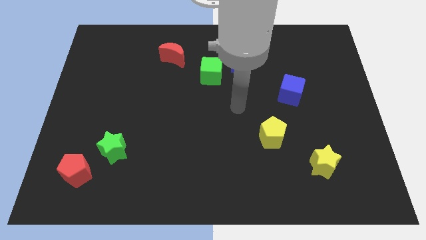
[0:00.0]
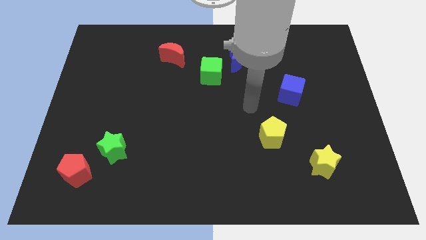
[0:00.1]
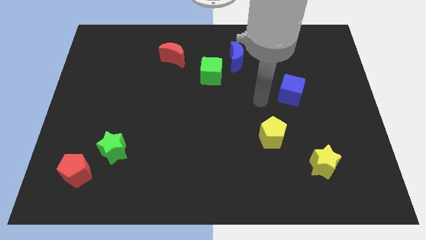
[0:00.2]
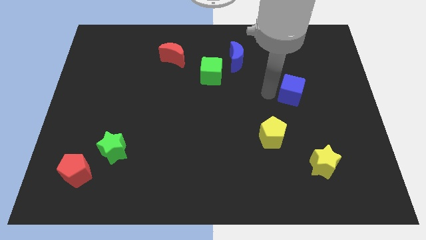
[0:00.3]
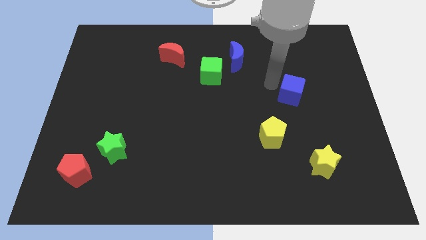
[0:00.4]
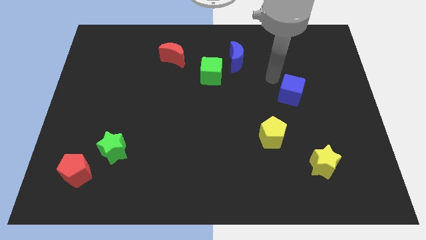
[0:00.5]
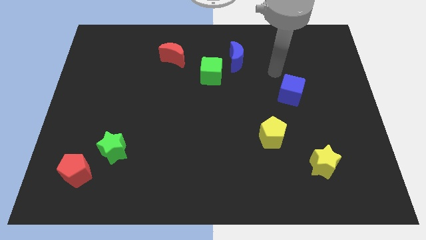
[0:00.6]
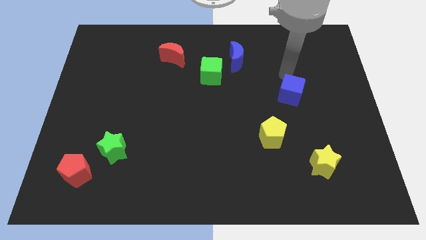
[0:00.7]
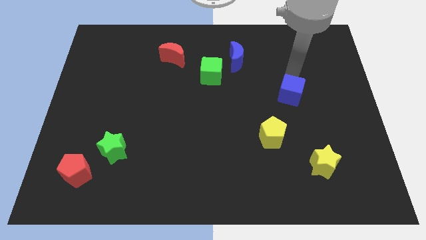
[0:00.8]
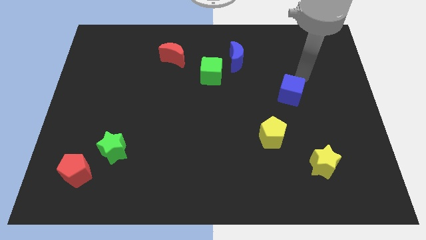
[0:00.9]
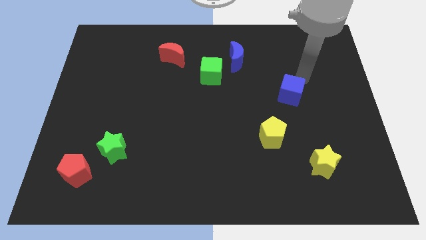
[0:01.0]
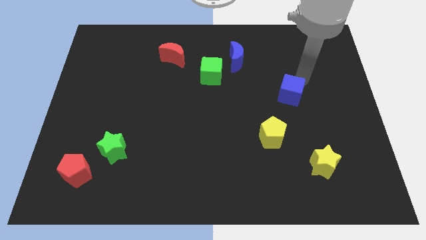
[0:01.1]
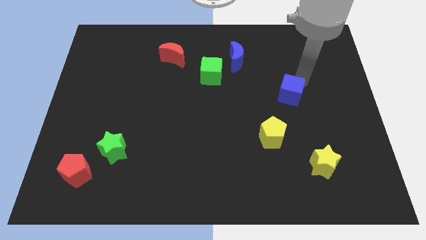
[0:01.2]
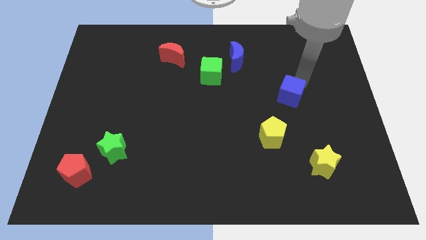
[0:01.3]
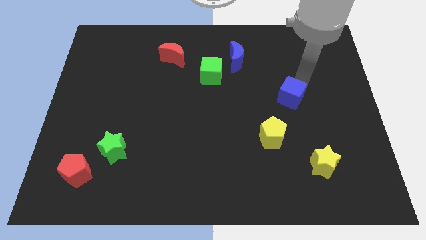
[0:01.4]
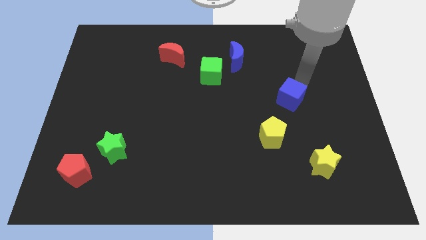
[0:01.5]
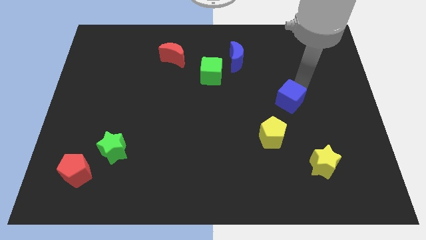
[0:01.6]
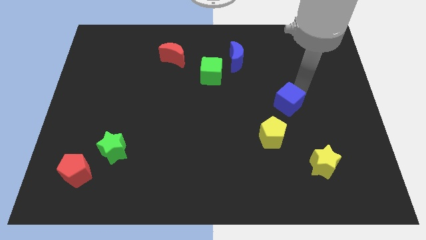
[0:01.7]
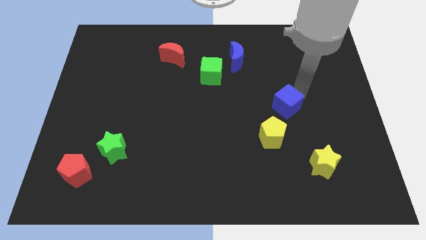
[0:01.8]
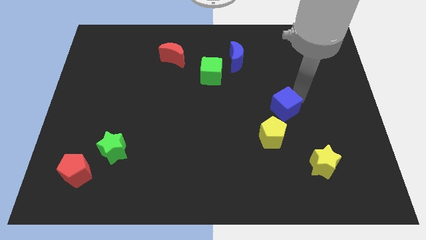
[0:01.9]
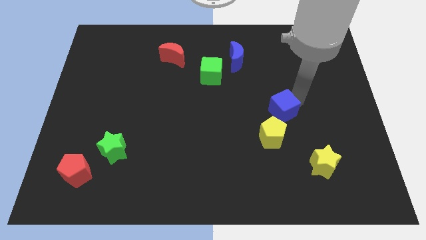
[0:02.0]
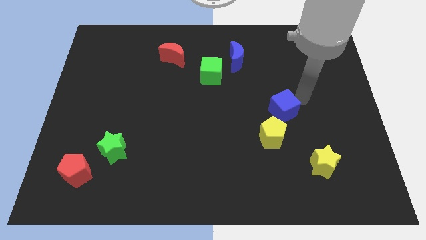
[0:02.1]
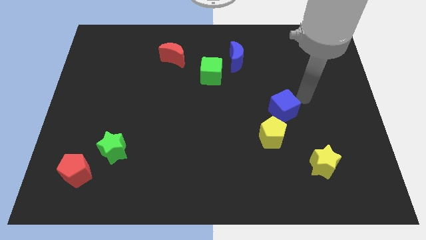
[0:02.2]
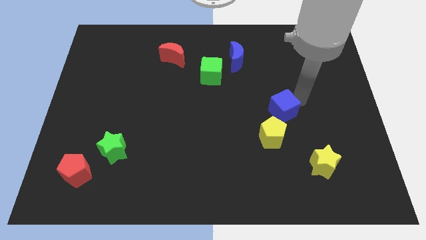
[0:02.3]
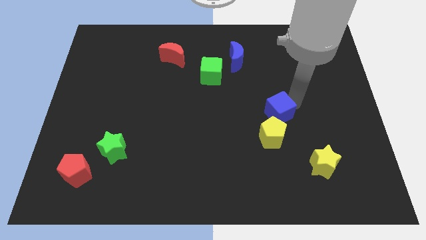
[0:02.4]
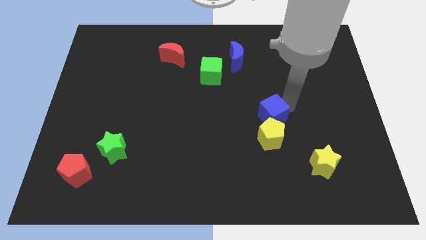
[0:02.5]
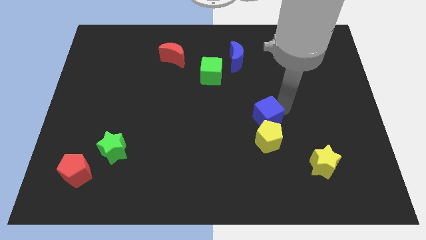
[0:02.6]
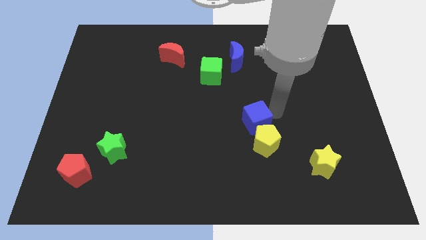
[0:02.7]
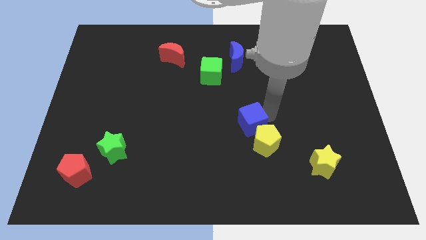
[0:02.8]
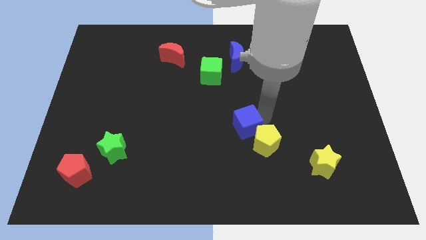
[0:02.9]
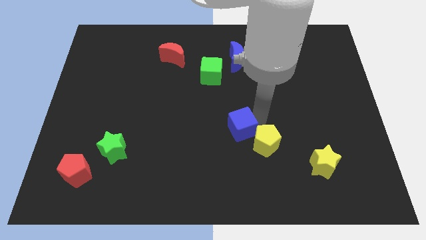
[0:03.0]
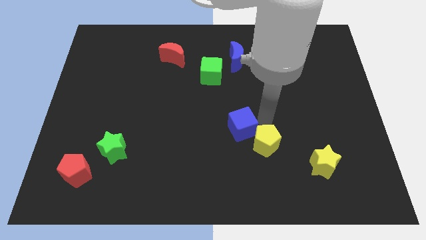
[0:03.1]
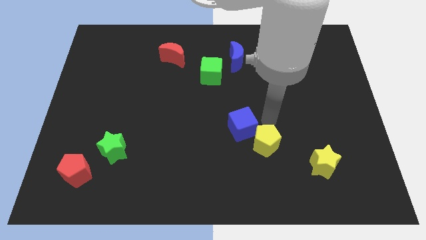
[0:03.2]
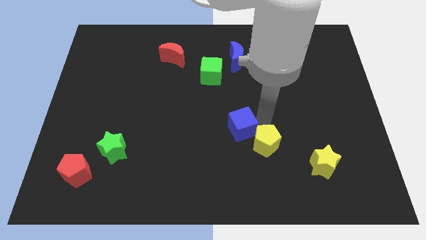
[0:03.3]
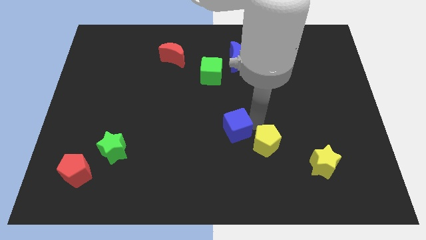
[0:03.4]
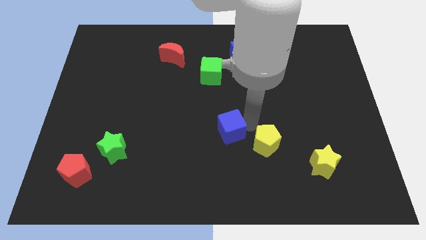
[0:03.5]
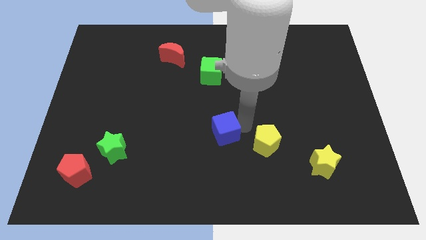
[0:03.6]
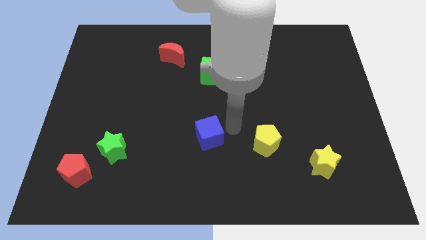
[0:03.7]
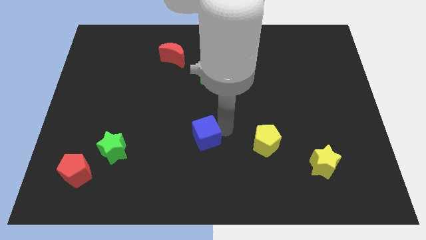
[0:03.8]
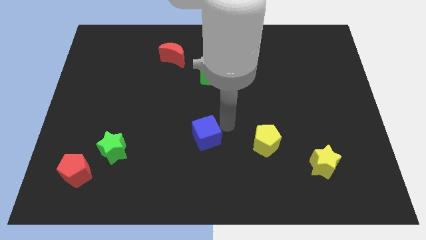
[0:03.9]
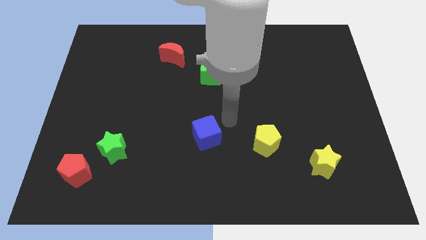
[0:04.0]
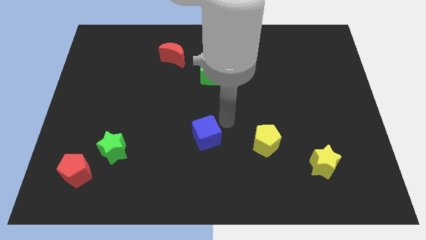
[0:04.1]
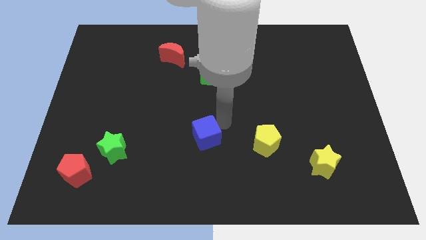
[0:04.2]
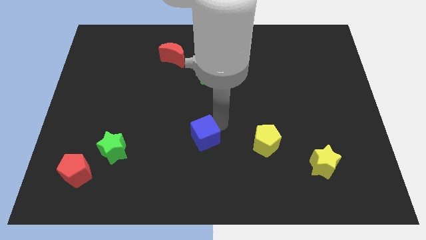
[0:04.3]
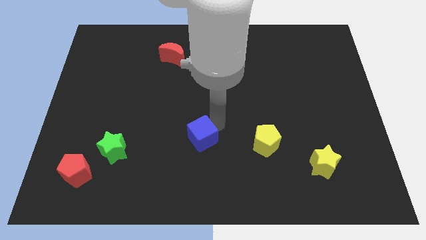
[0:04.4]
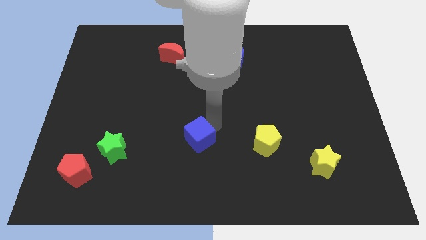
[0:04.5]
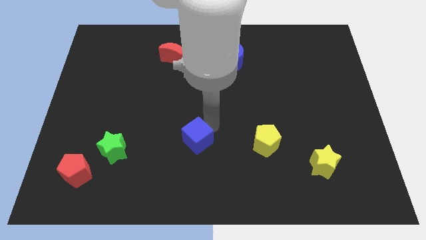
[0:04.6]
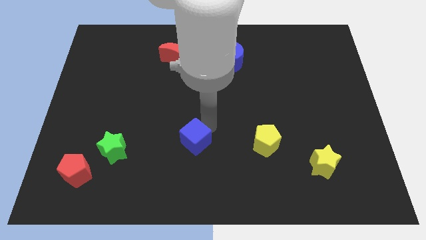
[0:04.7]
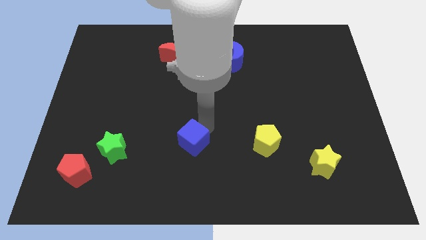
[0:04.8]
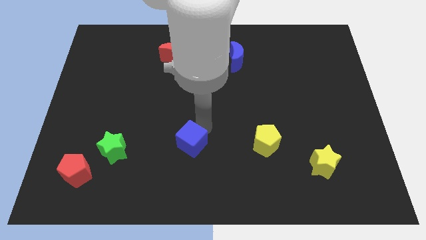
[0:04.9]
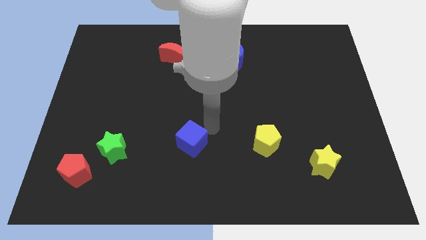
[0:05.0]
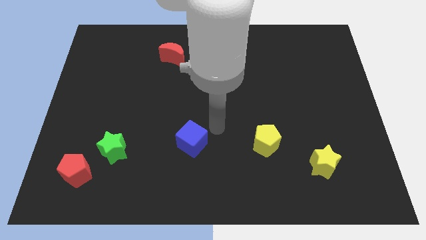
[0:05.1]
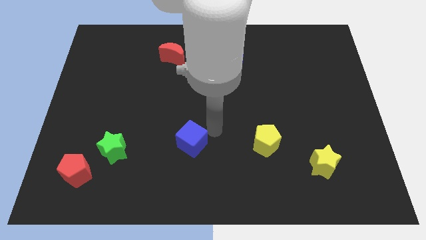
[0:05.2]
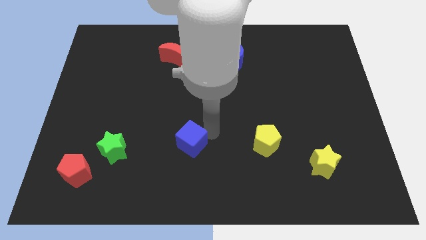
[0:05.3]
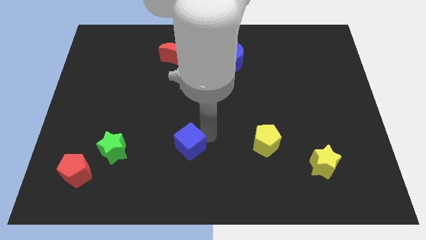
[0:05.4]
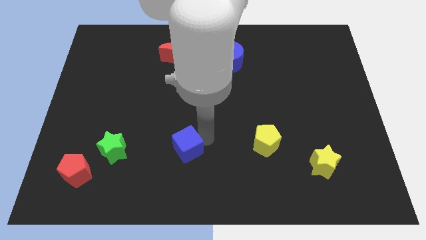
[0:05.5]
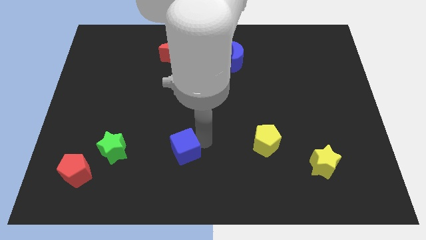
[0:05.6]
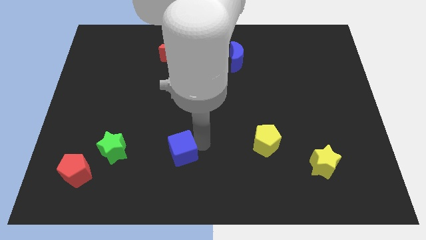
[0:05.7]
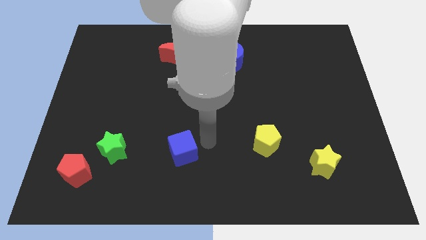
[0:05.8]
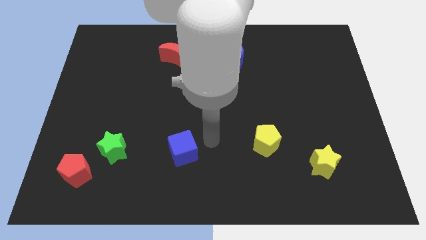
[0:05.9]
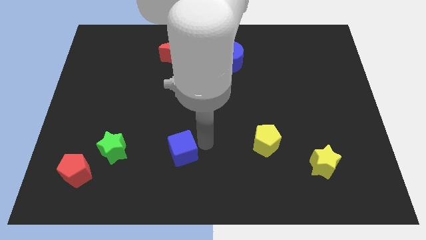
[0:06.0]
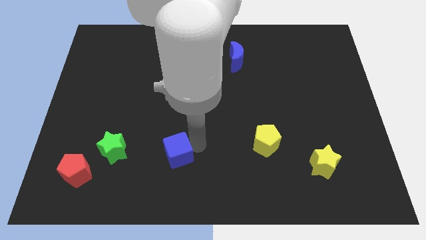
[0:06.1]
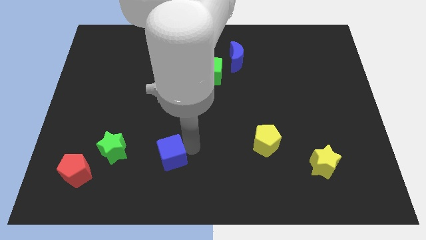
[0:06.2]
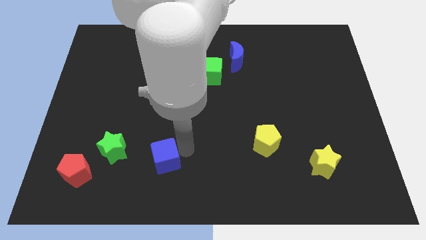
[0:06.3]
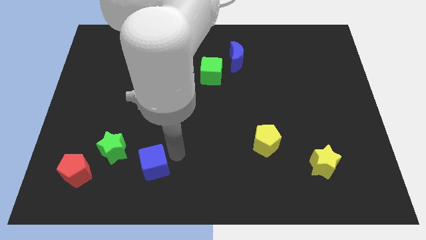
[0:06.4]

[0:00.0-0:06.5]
slide the blue cube right of the red pentagon
